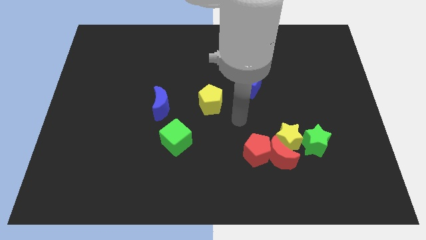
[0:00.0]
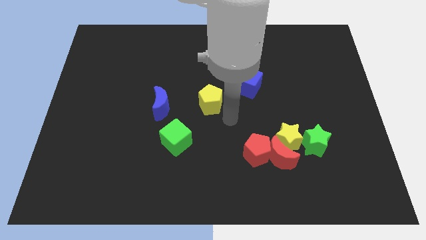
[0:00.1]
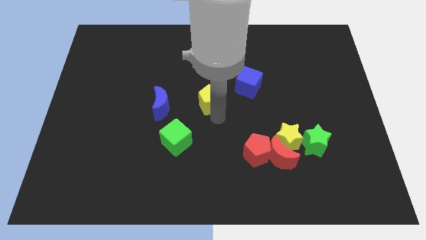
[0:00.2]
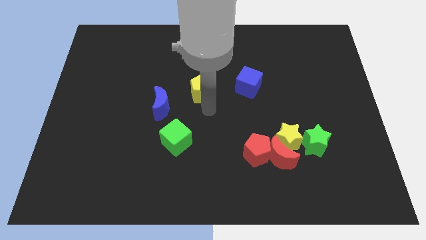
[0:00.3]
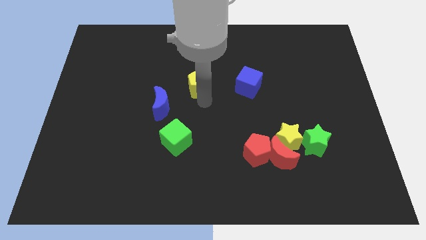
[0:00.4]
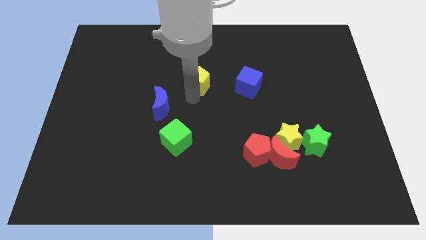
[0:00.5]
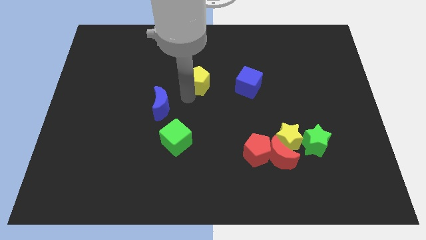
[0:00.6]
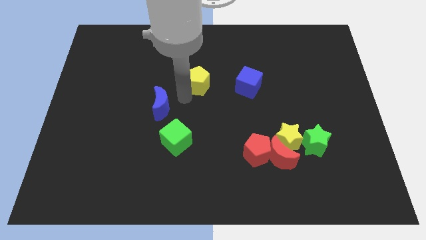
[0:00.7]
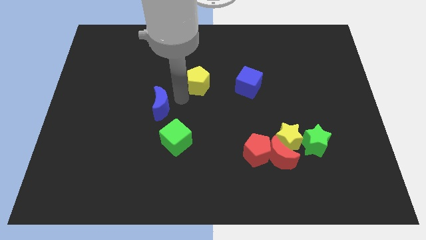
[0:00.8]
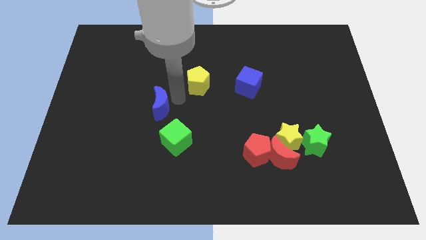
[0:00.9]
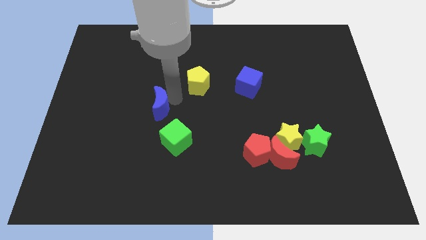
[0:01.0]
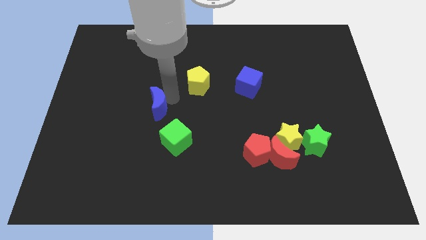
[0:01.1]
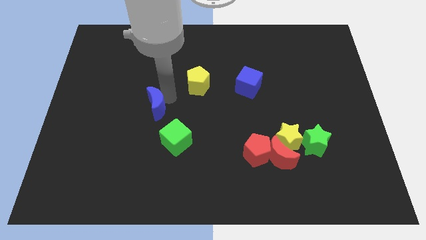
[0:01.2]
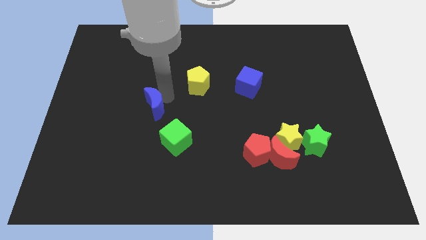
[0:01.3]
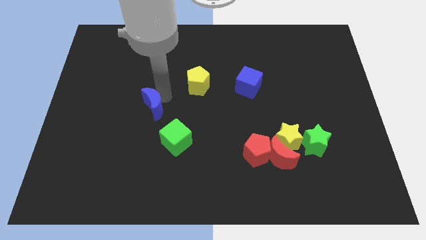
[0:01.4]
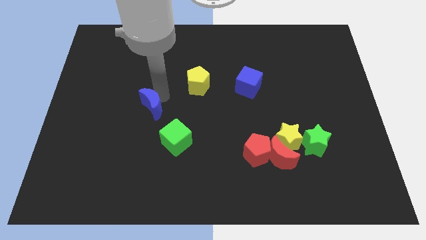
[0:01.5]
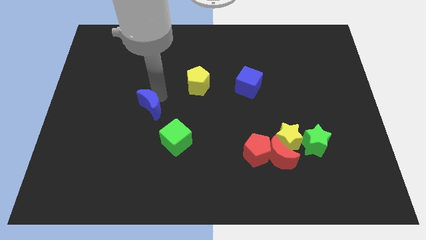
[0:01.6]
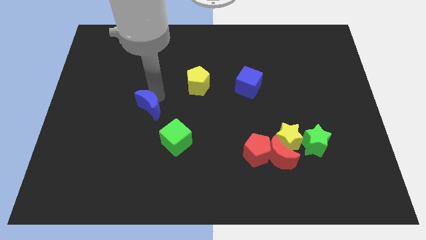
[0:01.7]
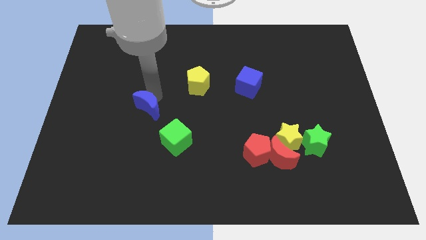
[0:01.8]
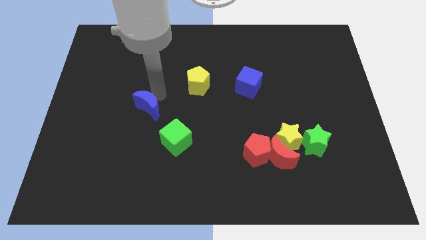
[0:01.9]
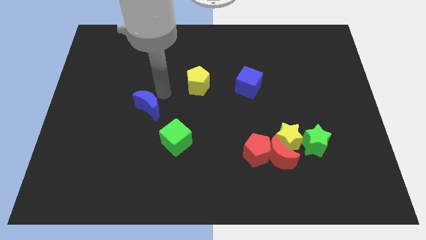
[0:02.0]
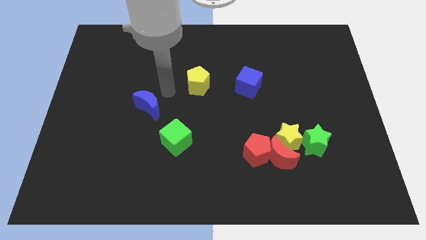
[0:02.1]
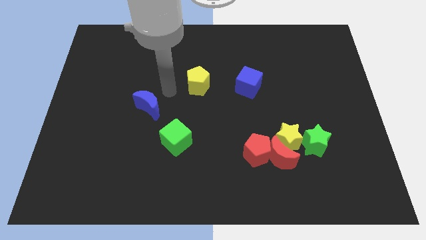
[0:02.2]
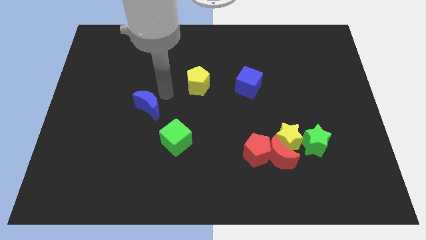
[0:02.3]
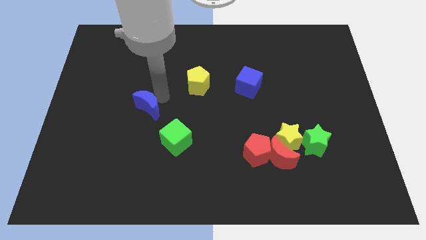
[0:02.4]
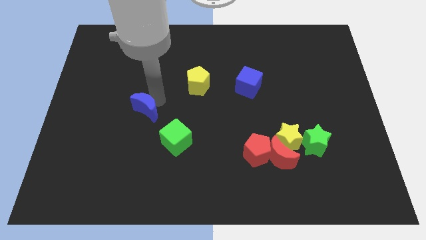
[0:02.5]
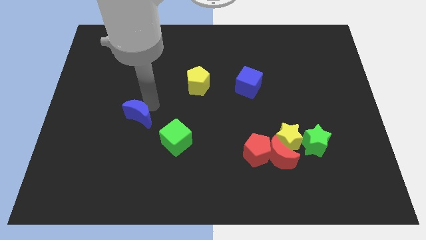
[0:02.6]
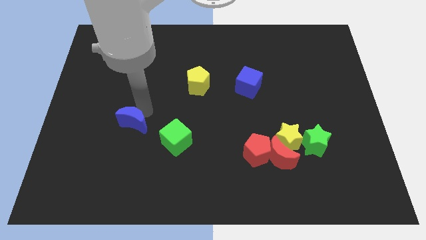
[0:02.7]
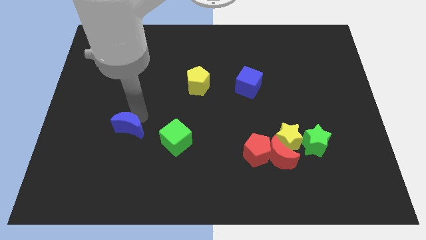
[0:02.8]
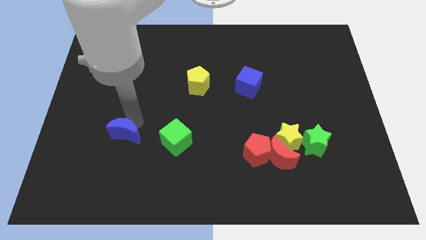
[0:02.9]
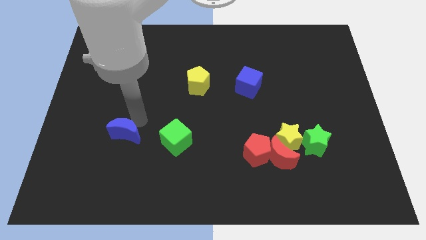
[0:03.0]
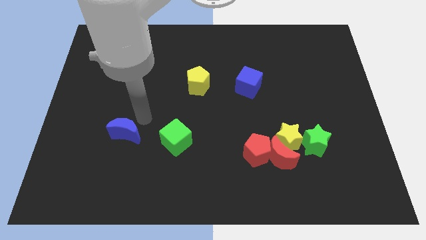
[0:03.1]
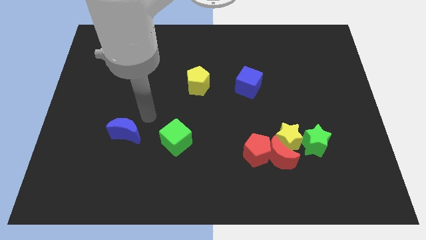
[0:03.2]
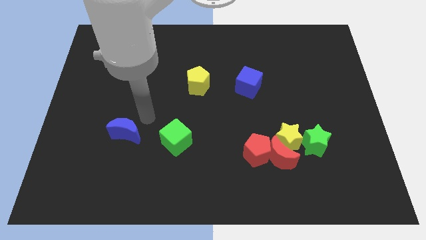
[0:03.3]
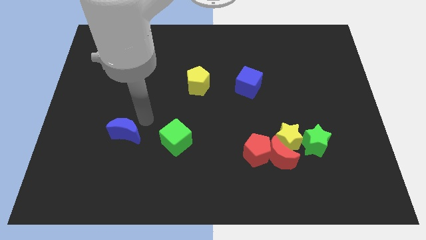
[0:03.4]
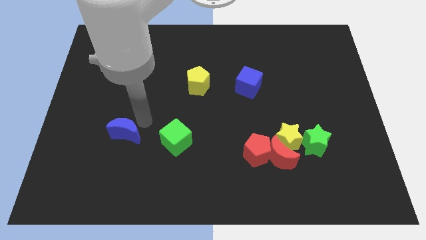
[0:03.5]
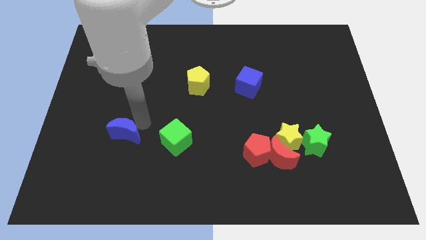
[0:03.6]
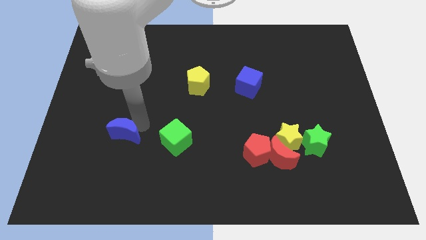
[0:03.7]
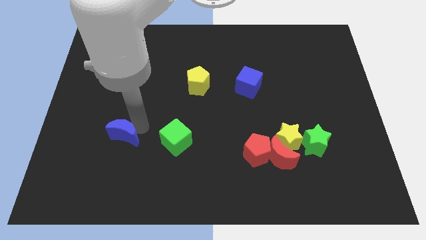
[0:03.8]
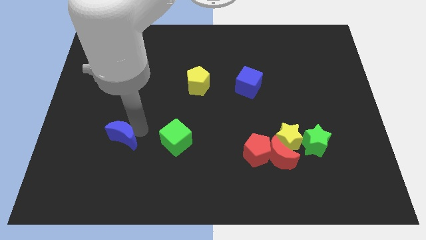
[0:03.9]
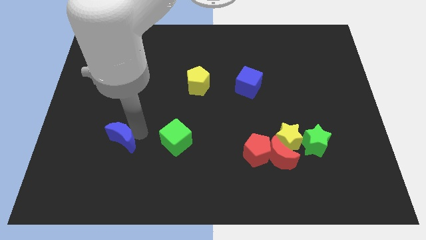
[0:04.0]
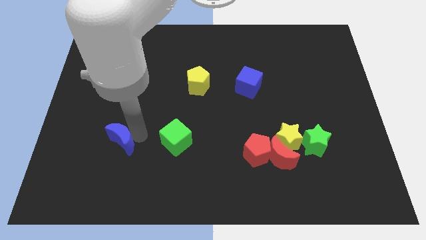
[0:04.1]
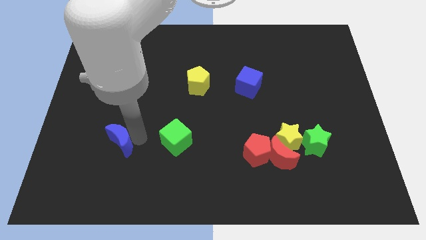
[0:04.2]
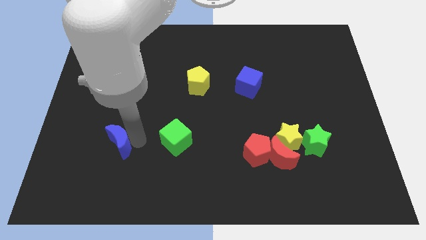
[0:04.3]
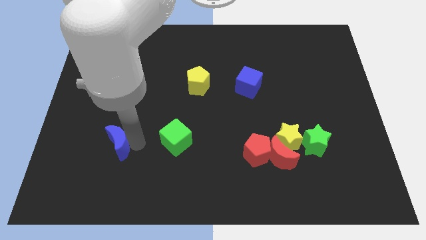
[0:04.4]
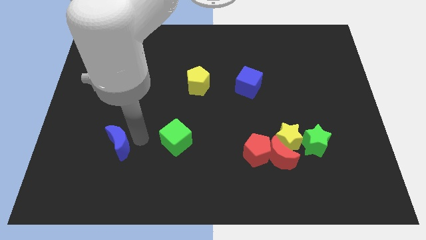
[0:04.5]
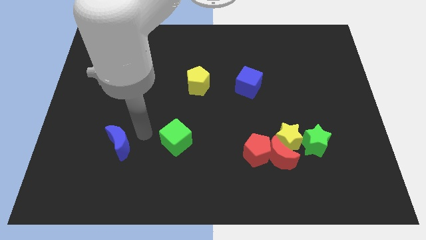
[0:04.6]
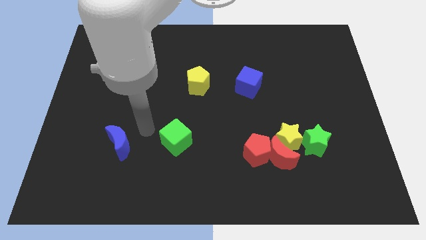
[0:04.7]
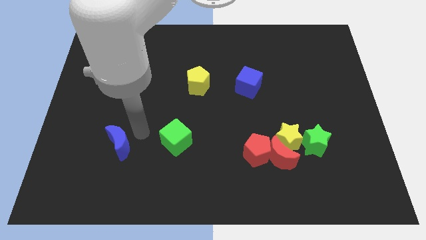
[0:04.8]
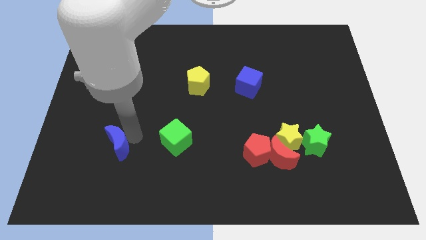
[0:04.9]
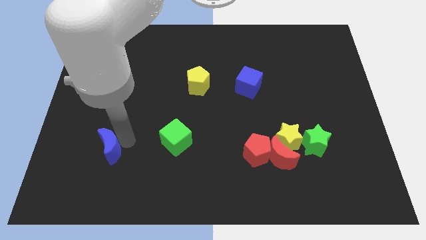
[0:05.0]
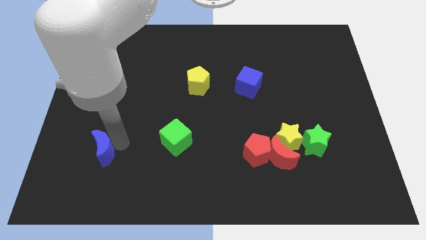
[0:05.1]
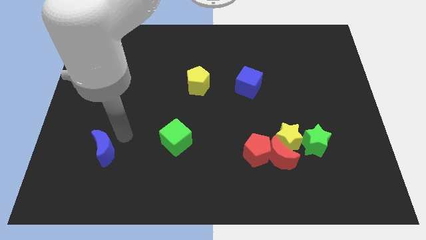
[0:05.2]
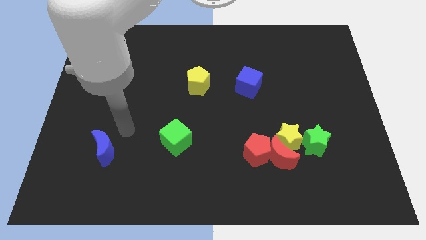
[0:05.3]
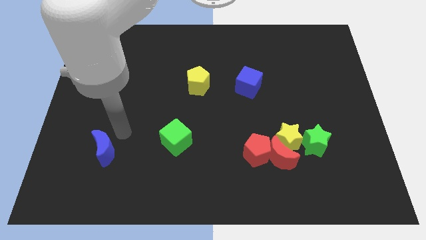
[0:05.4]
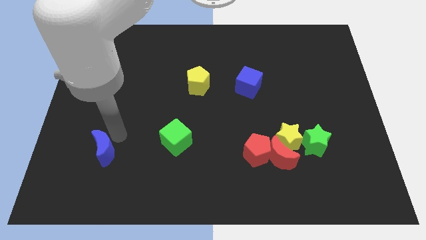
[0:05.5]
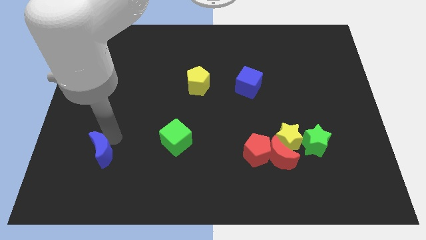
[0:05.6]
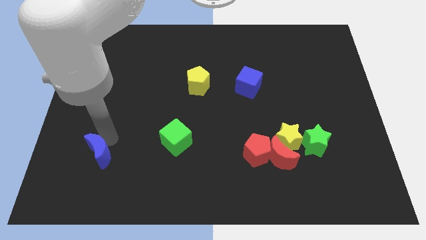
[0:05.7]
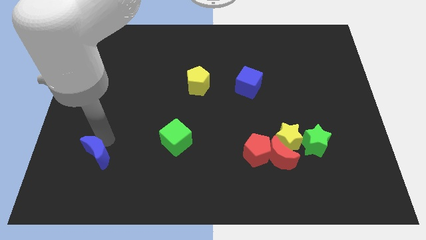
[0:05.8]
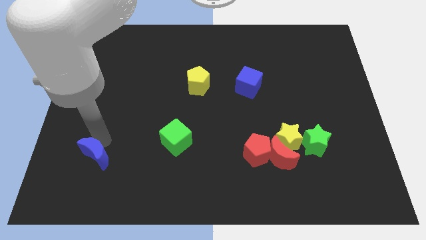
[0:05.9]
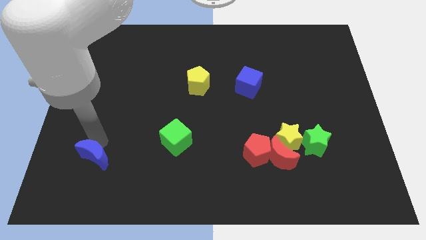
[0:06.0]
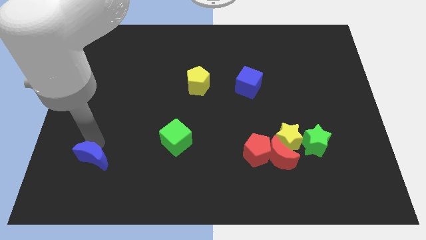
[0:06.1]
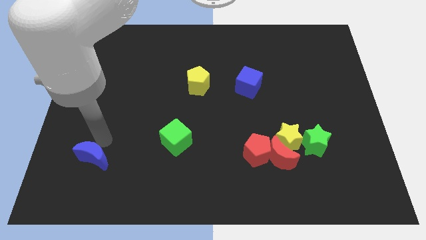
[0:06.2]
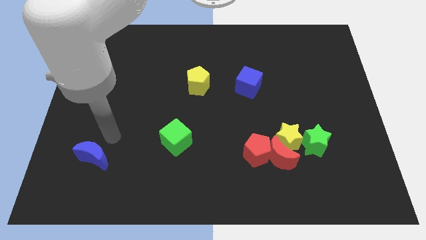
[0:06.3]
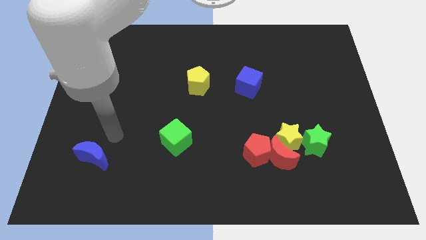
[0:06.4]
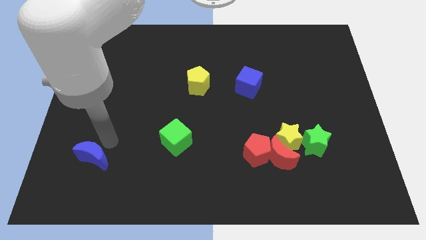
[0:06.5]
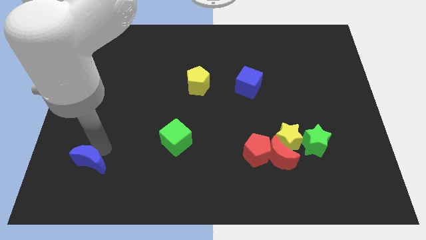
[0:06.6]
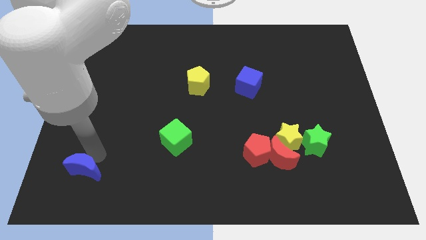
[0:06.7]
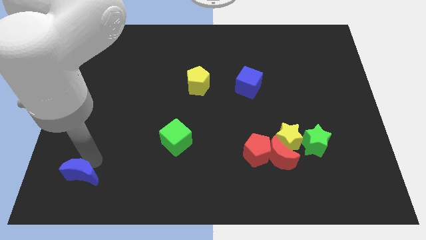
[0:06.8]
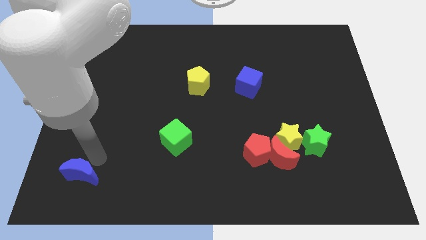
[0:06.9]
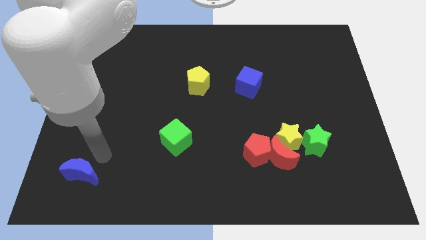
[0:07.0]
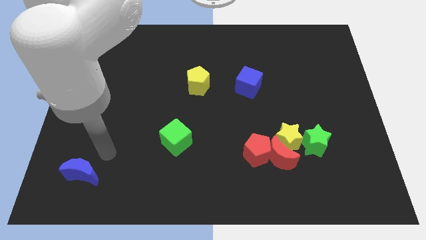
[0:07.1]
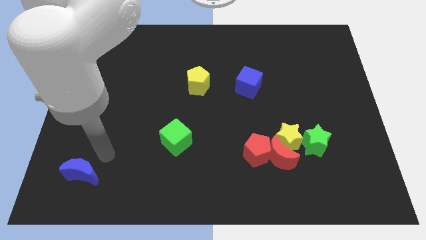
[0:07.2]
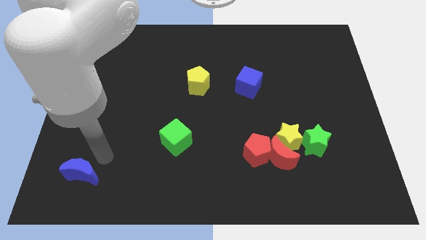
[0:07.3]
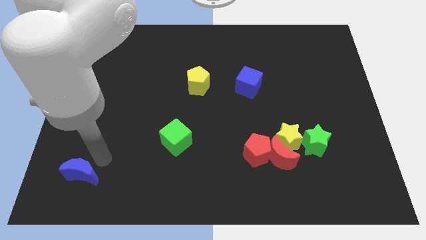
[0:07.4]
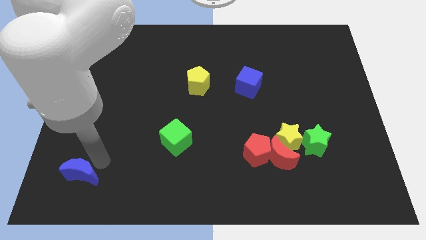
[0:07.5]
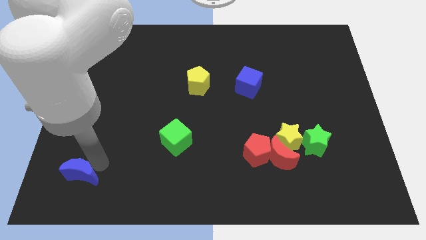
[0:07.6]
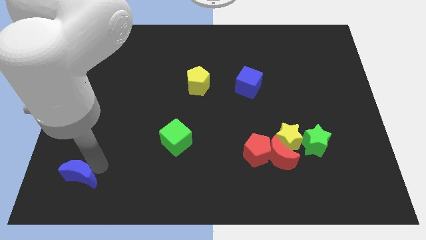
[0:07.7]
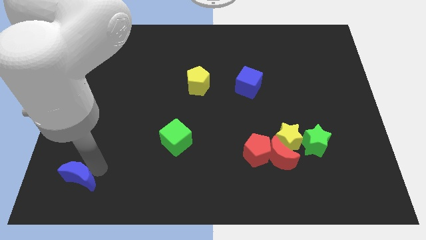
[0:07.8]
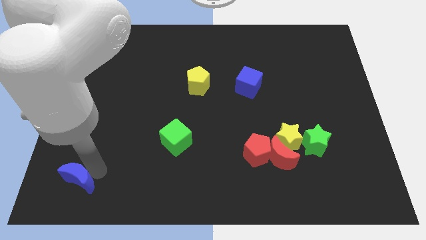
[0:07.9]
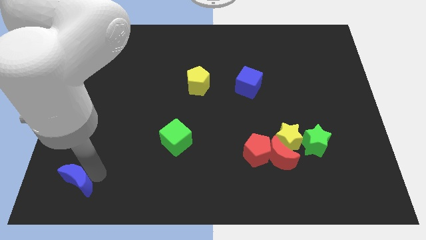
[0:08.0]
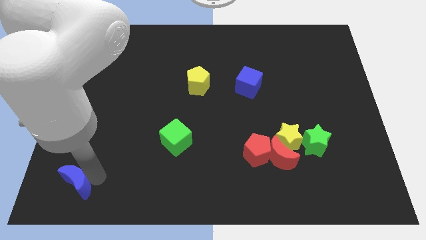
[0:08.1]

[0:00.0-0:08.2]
put the blue moon to the bottom left corner
